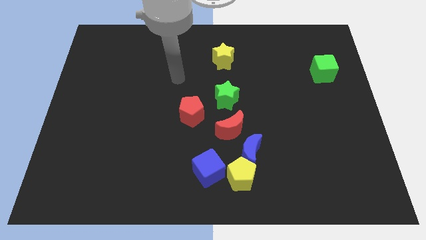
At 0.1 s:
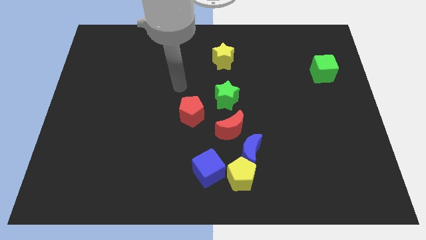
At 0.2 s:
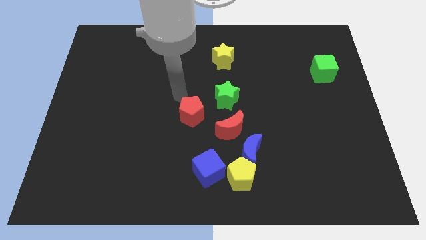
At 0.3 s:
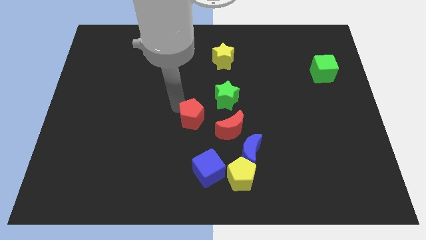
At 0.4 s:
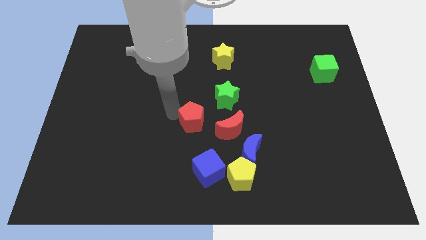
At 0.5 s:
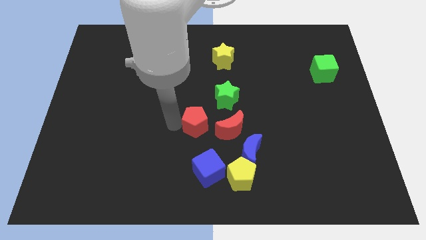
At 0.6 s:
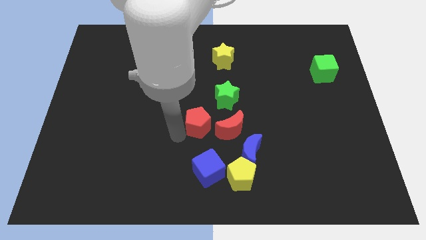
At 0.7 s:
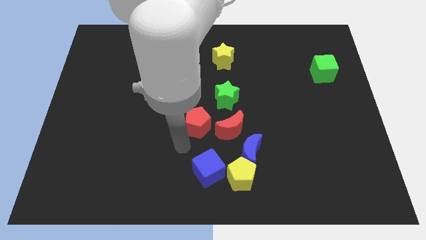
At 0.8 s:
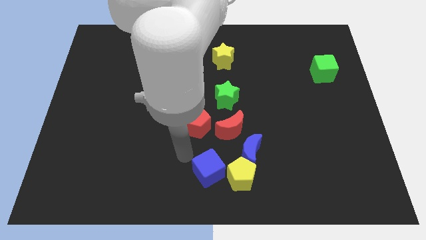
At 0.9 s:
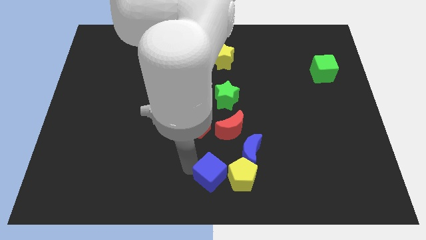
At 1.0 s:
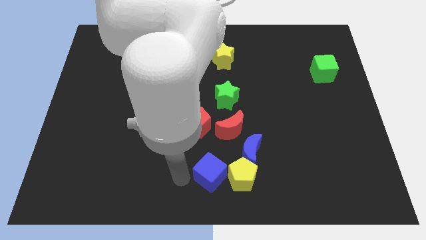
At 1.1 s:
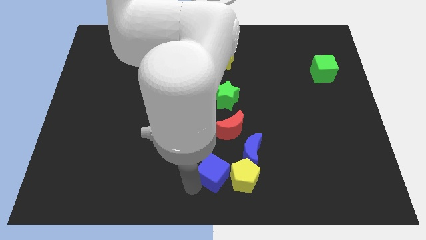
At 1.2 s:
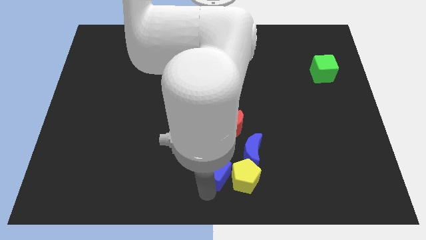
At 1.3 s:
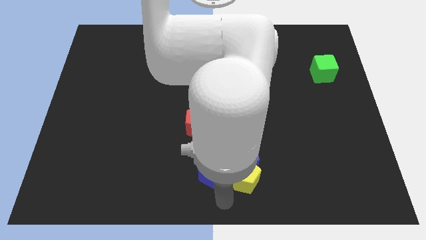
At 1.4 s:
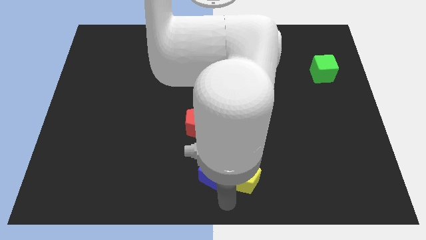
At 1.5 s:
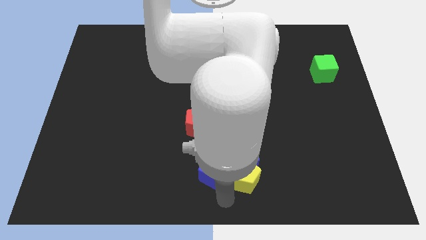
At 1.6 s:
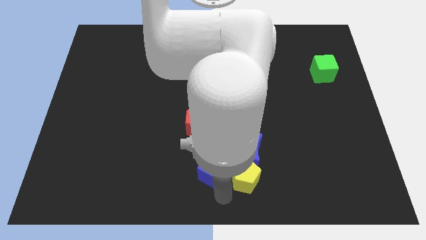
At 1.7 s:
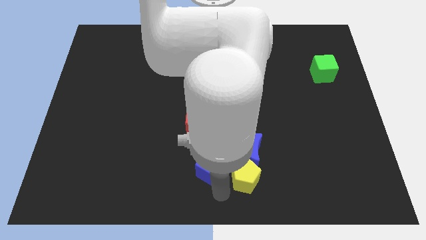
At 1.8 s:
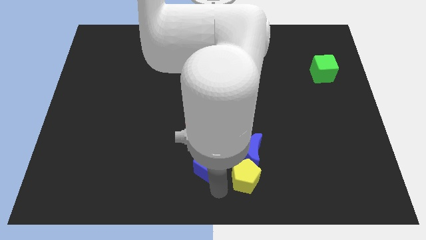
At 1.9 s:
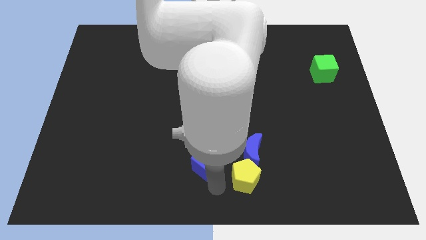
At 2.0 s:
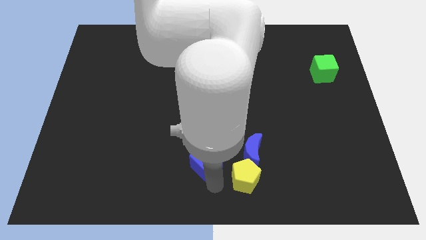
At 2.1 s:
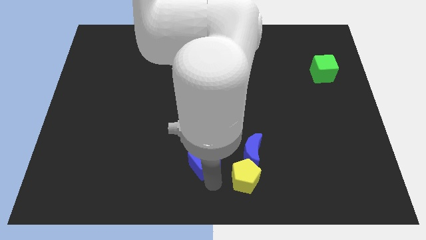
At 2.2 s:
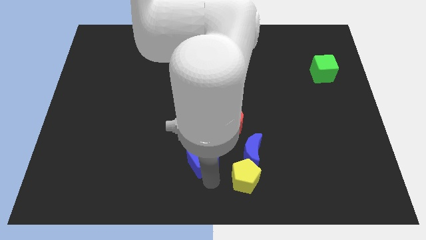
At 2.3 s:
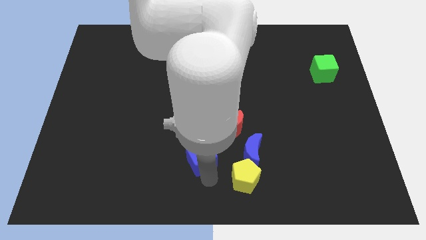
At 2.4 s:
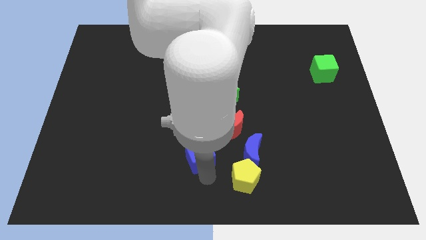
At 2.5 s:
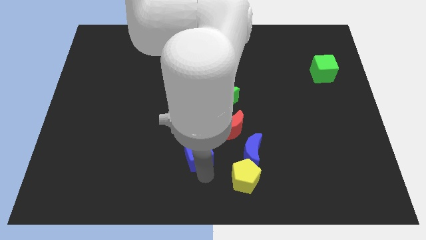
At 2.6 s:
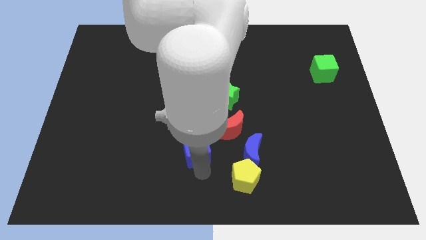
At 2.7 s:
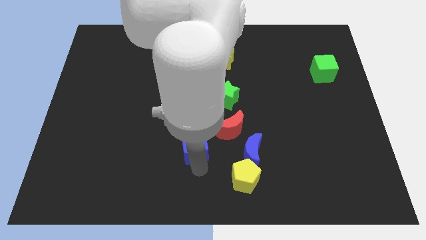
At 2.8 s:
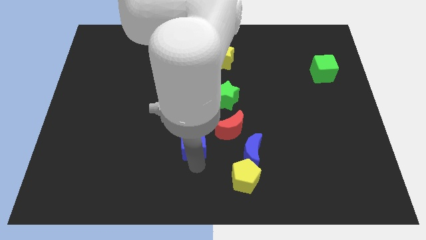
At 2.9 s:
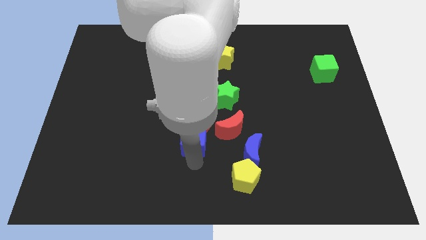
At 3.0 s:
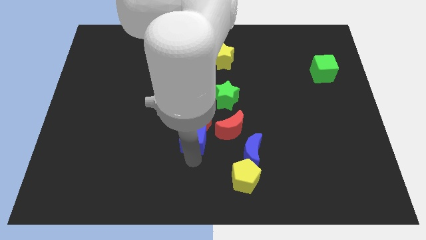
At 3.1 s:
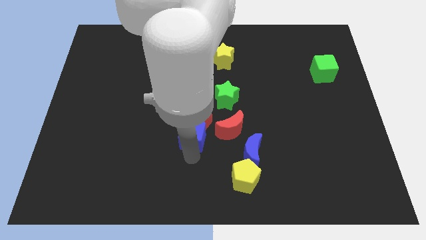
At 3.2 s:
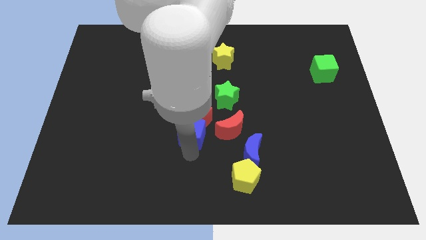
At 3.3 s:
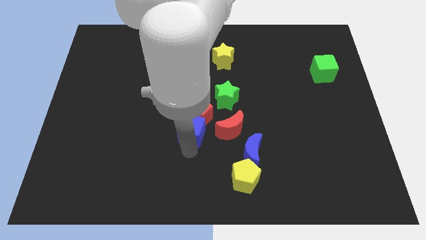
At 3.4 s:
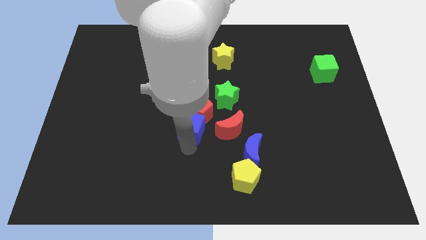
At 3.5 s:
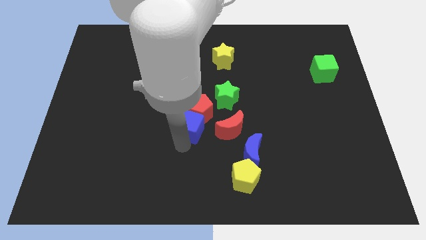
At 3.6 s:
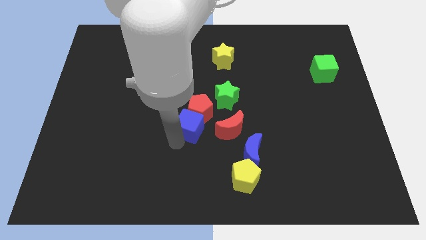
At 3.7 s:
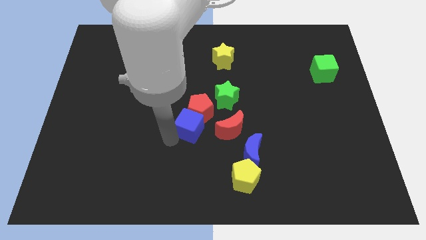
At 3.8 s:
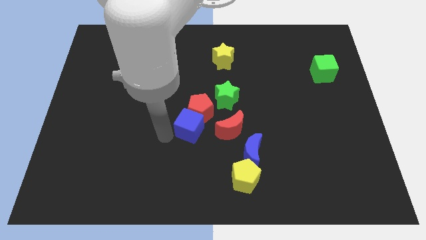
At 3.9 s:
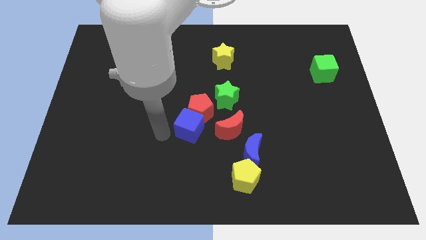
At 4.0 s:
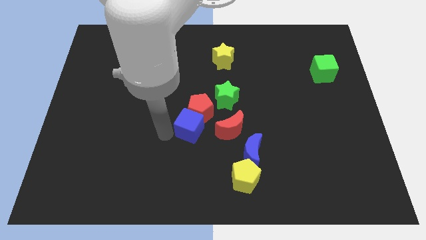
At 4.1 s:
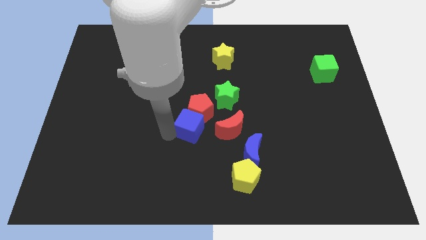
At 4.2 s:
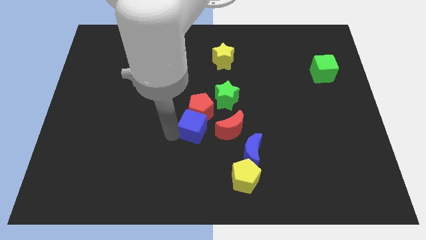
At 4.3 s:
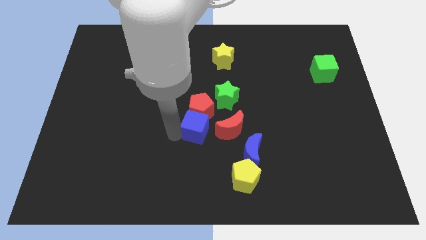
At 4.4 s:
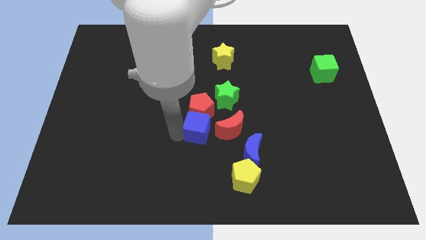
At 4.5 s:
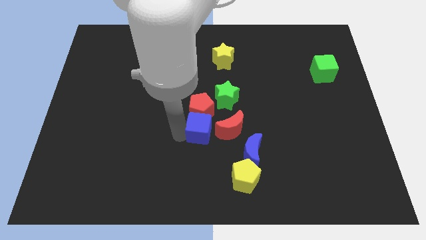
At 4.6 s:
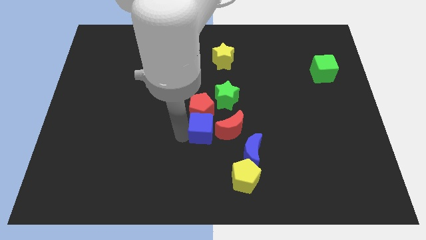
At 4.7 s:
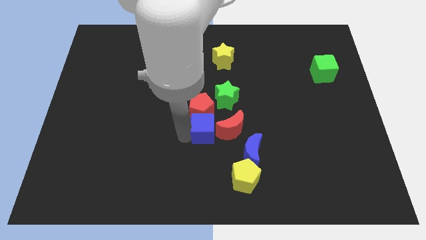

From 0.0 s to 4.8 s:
slide the blue cube to the top left of the blue moon

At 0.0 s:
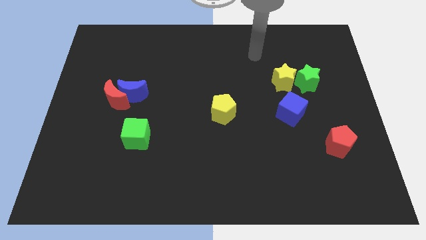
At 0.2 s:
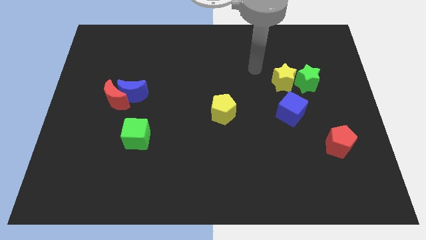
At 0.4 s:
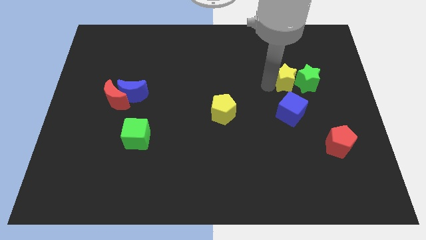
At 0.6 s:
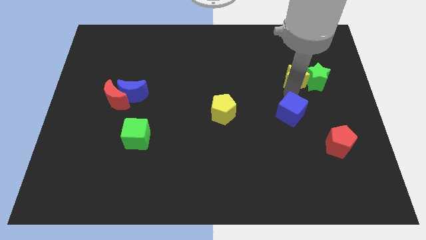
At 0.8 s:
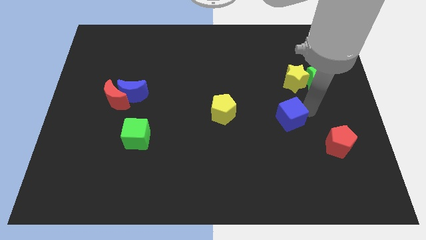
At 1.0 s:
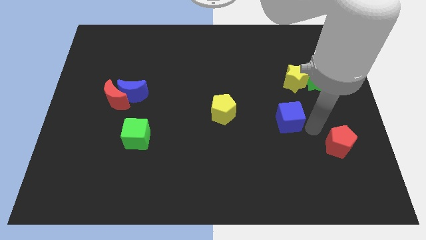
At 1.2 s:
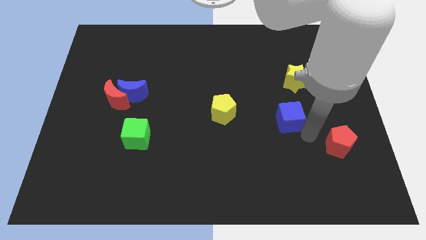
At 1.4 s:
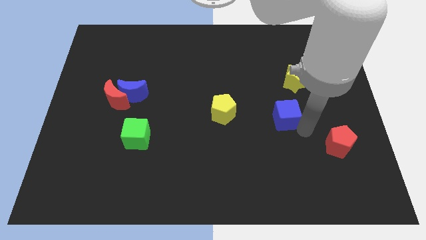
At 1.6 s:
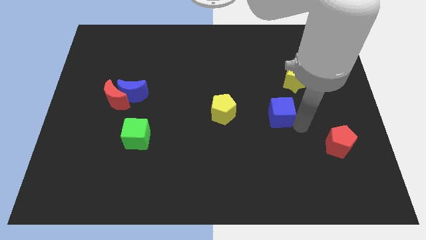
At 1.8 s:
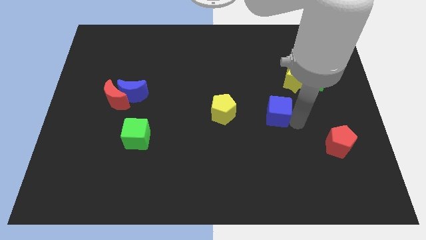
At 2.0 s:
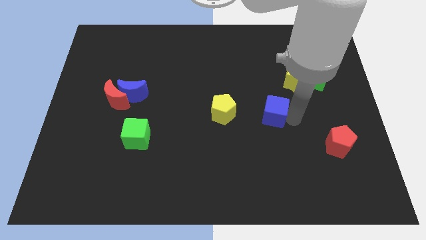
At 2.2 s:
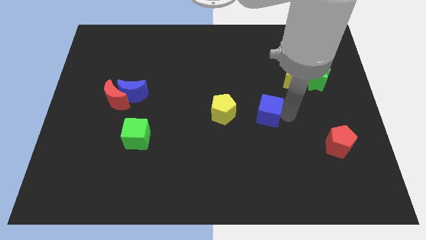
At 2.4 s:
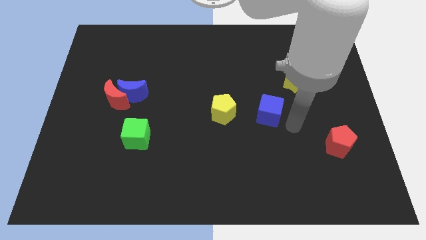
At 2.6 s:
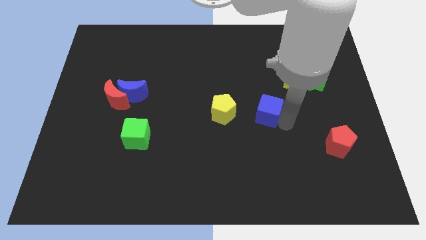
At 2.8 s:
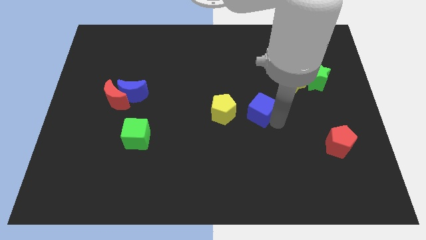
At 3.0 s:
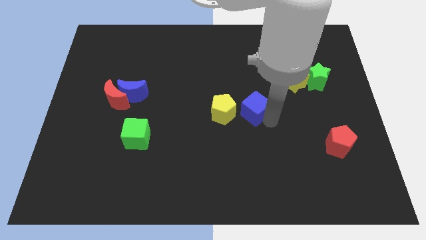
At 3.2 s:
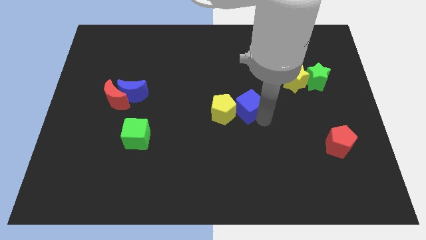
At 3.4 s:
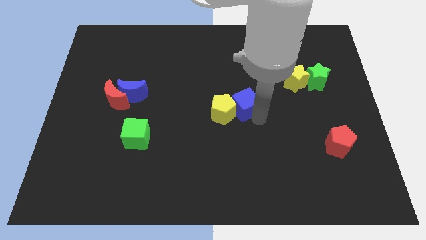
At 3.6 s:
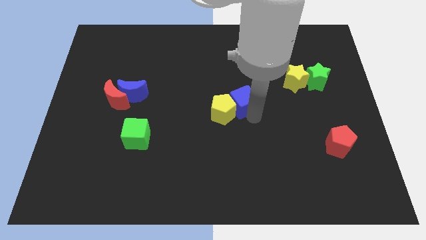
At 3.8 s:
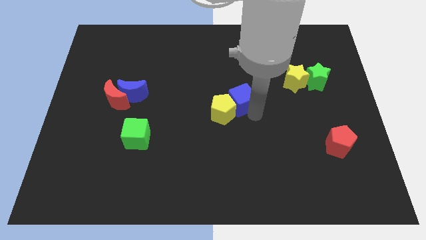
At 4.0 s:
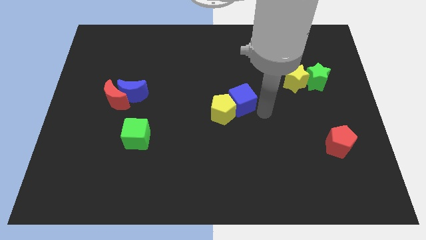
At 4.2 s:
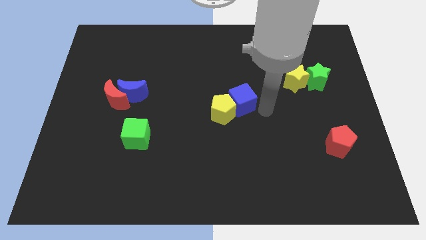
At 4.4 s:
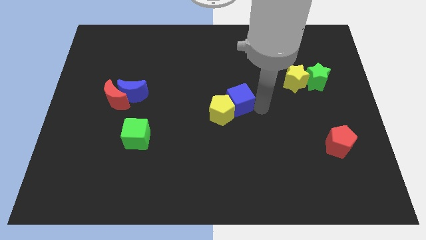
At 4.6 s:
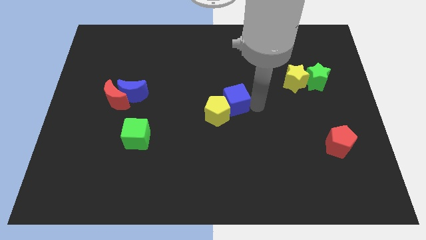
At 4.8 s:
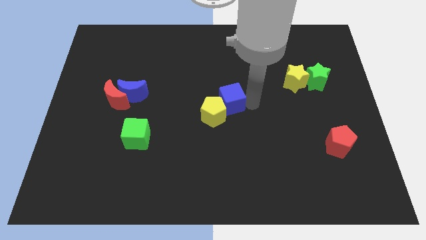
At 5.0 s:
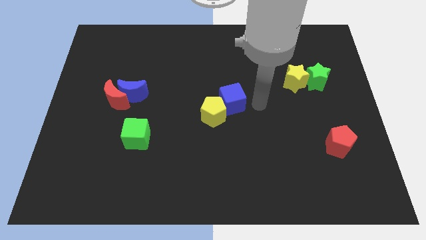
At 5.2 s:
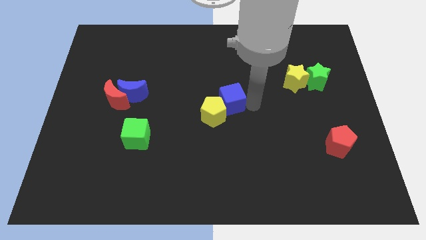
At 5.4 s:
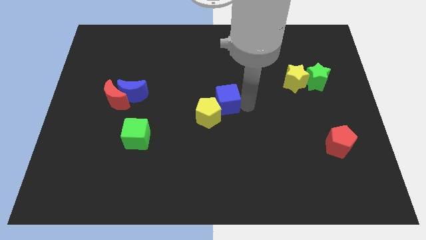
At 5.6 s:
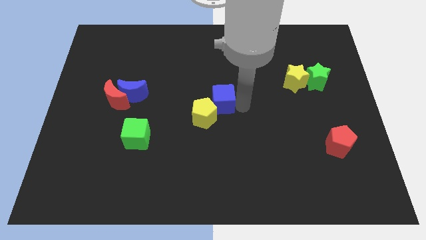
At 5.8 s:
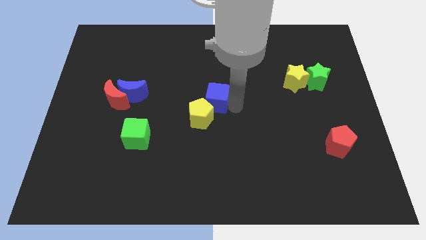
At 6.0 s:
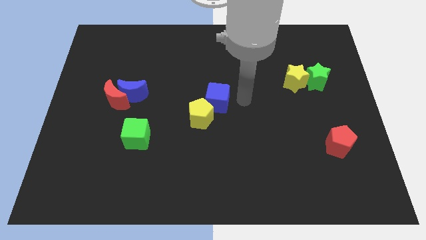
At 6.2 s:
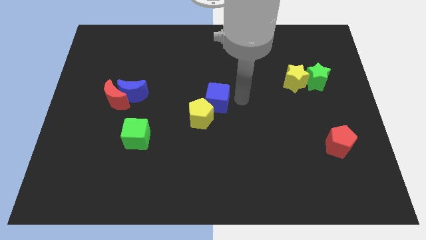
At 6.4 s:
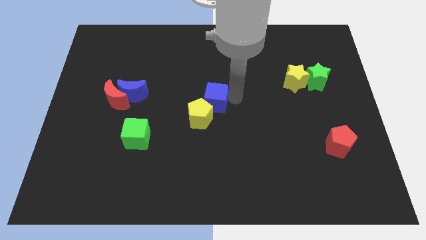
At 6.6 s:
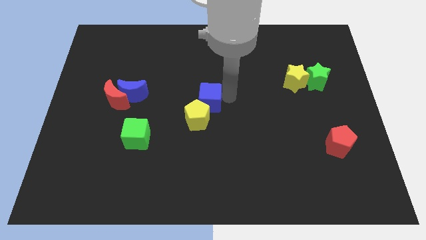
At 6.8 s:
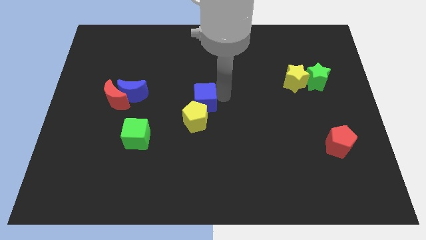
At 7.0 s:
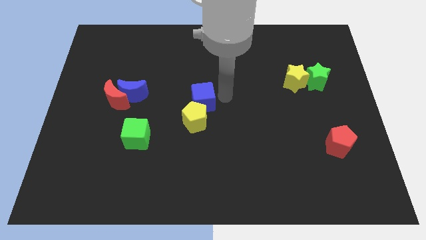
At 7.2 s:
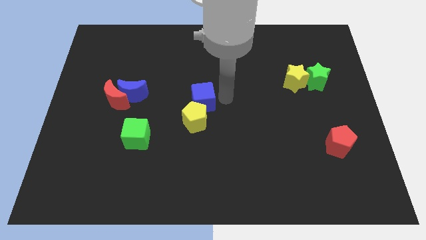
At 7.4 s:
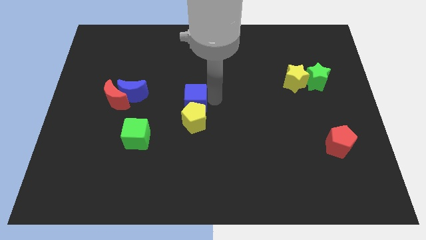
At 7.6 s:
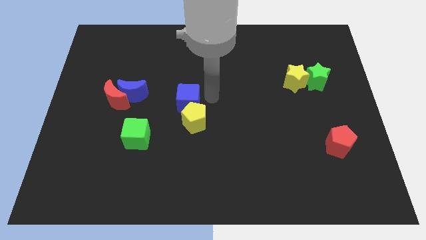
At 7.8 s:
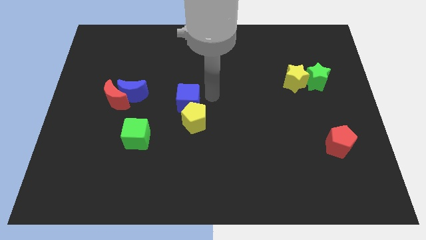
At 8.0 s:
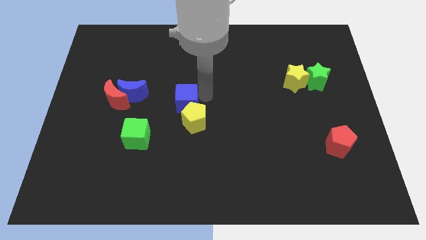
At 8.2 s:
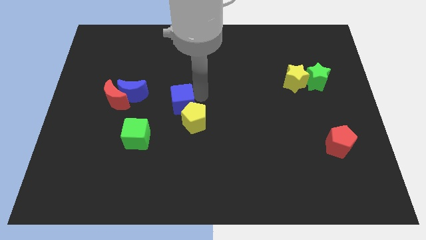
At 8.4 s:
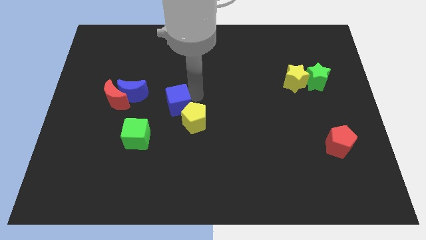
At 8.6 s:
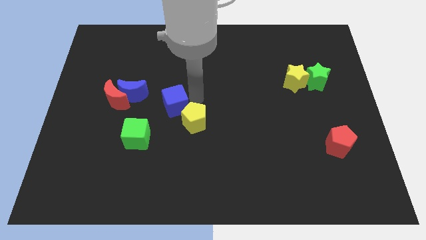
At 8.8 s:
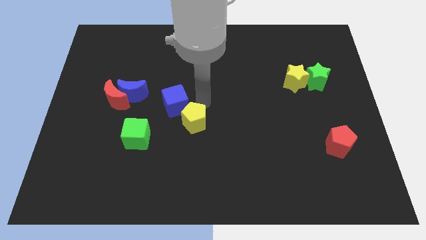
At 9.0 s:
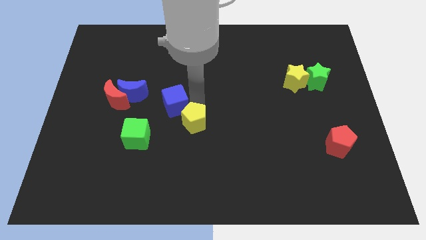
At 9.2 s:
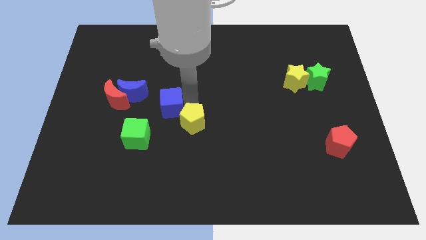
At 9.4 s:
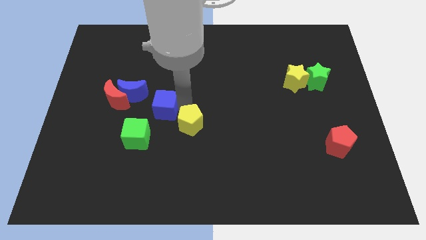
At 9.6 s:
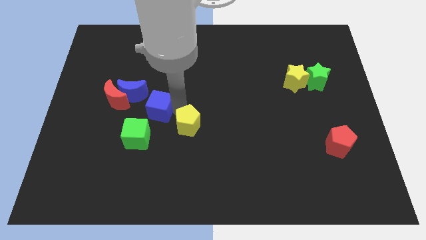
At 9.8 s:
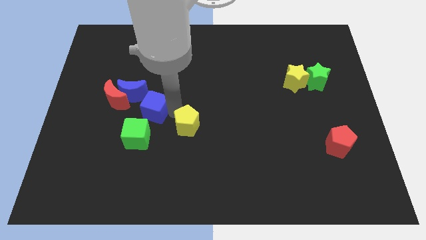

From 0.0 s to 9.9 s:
slide the blue cube to the bottom right of the red moon
